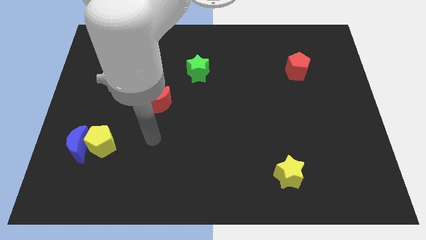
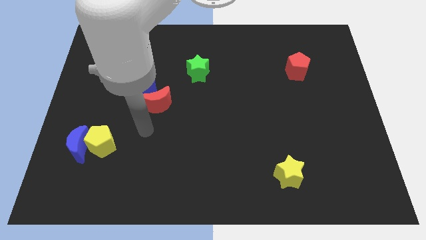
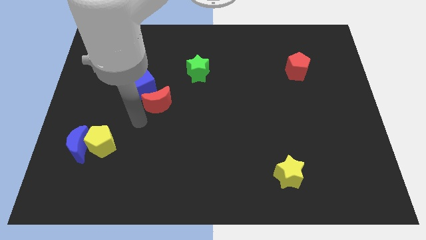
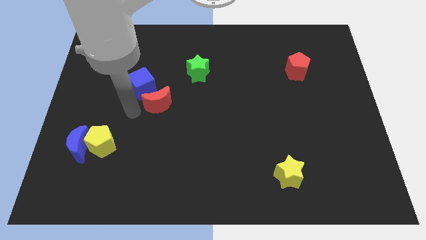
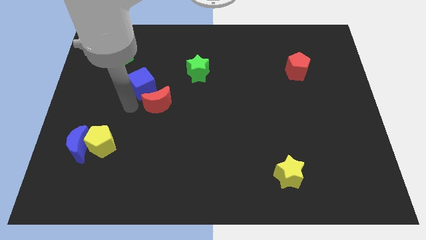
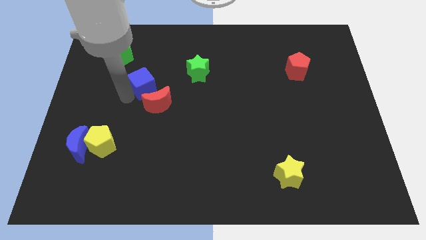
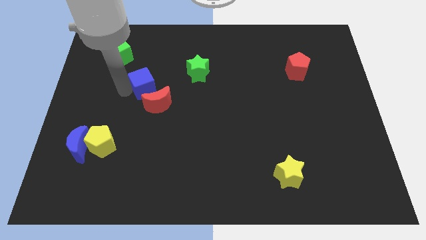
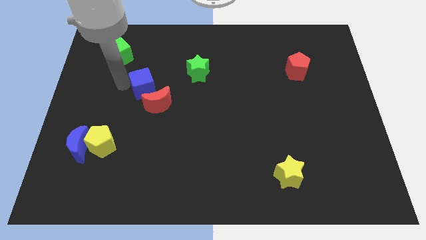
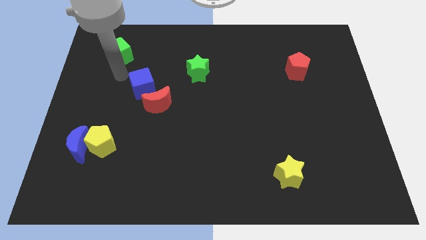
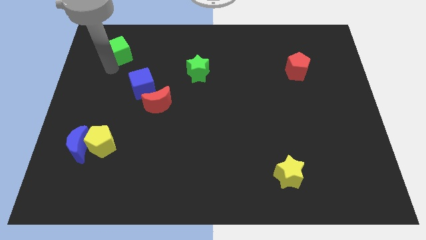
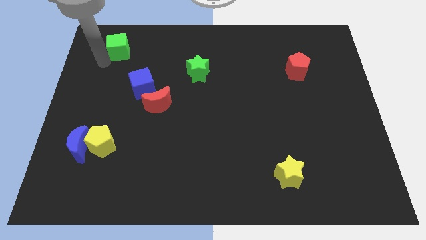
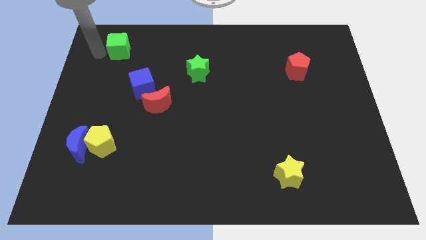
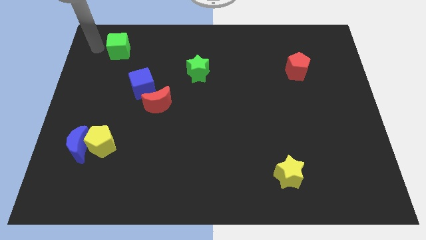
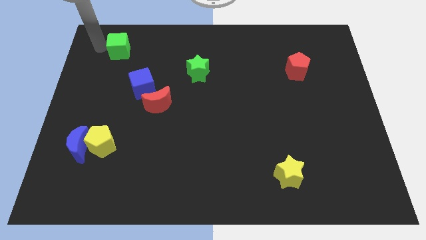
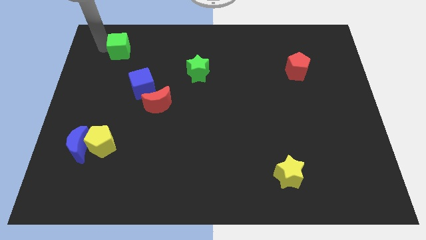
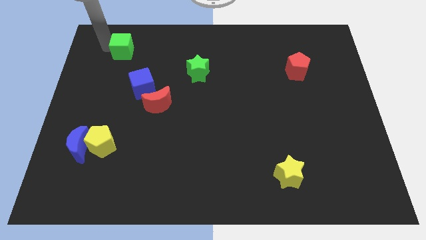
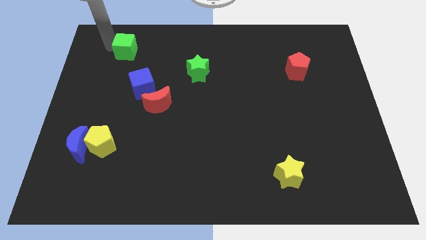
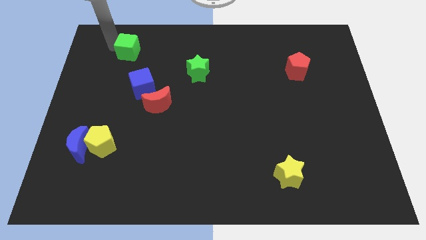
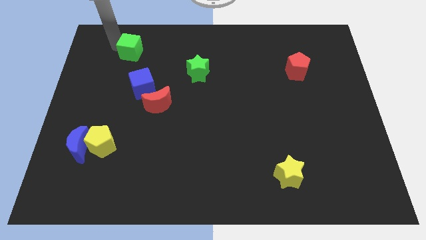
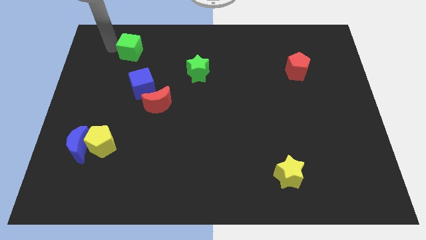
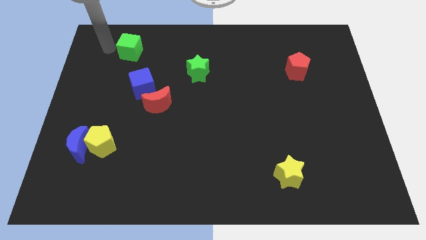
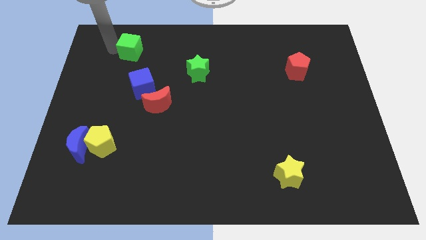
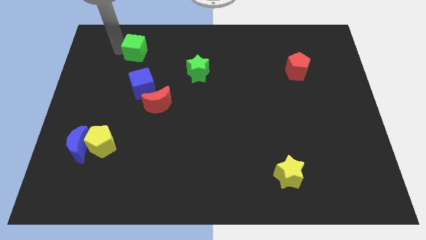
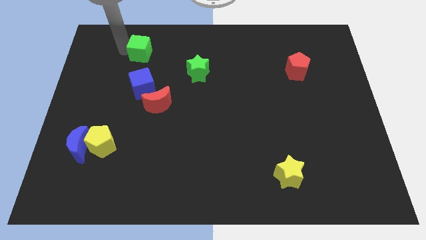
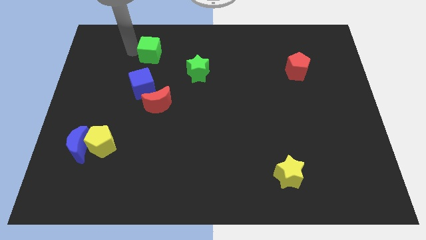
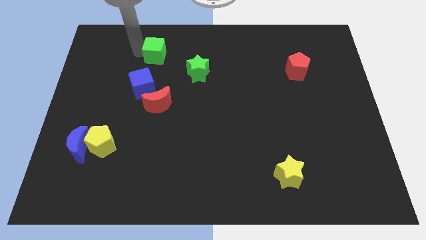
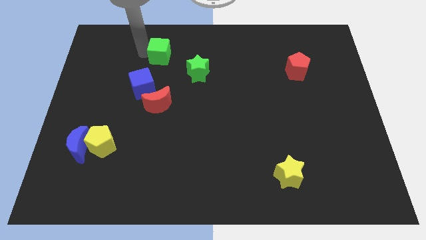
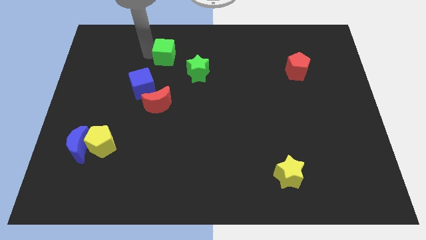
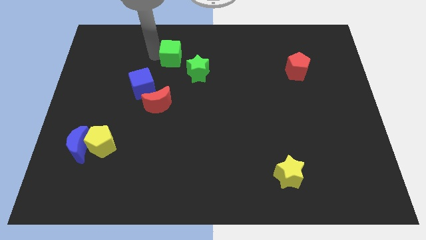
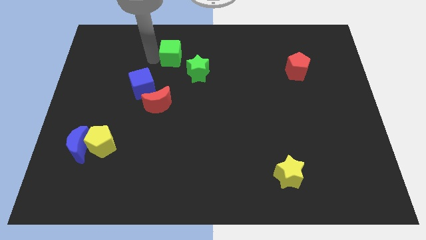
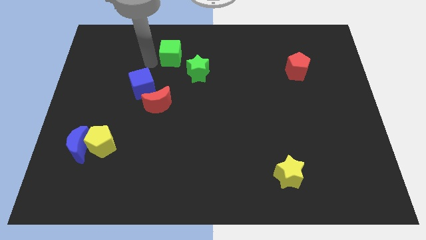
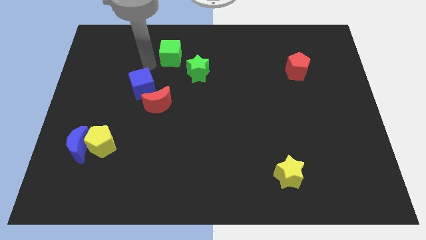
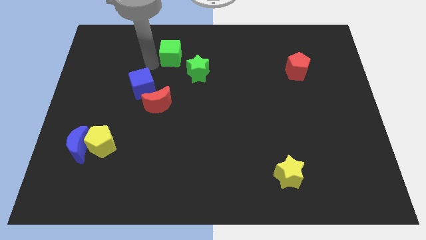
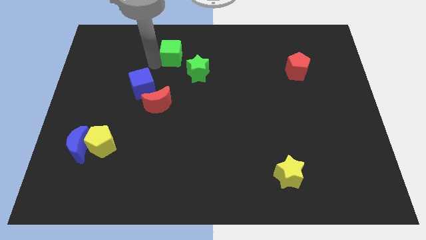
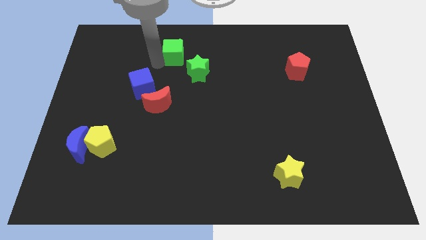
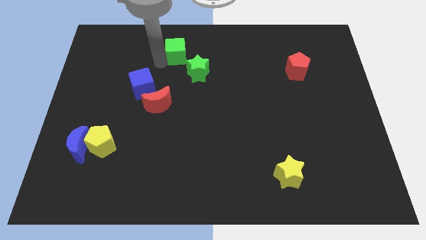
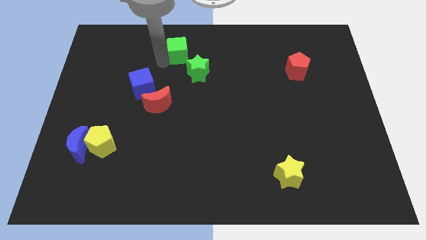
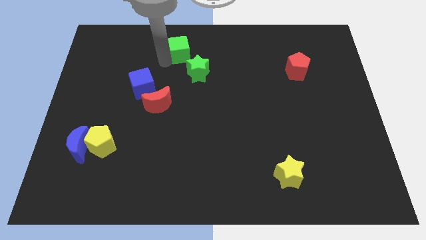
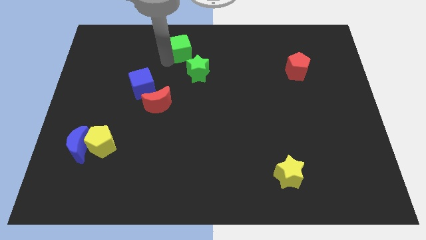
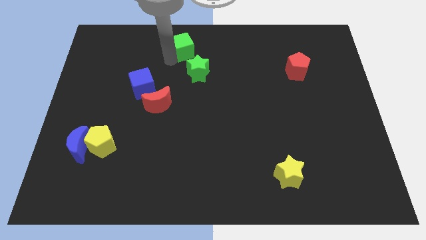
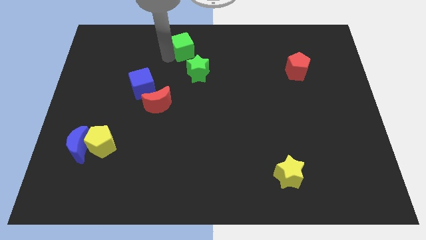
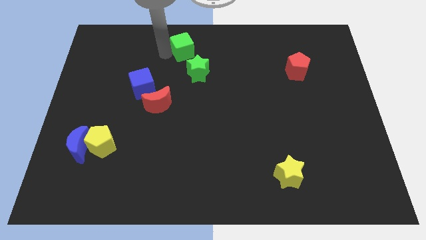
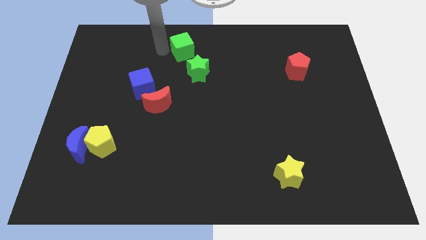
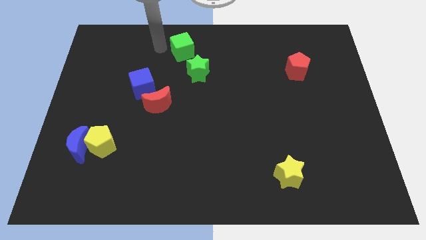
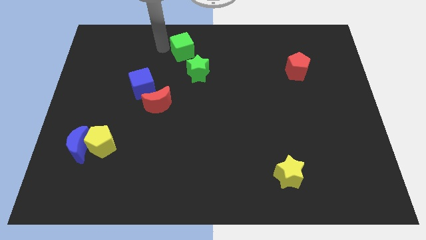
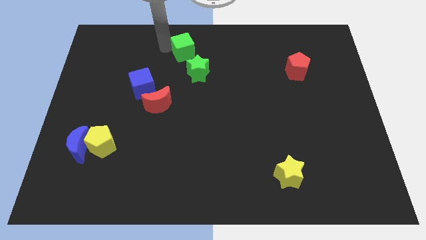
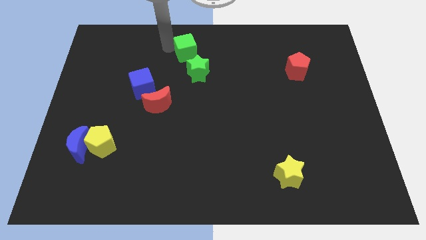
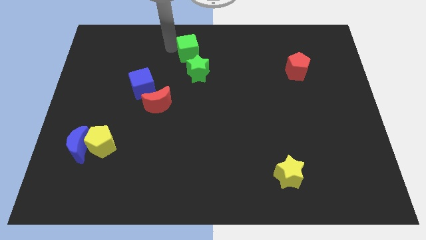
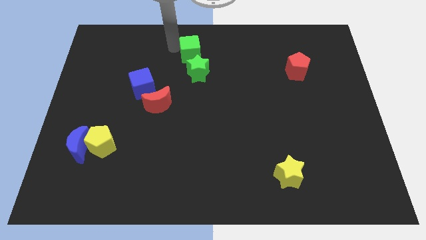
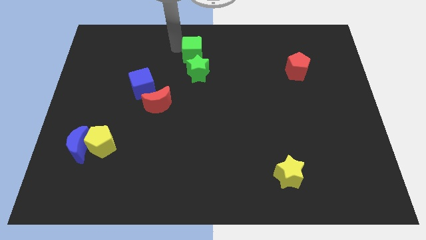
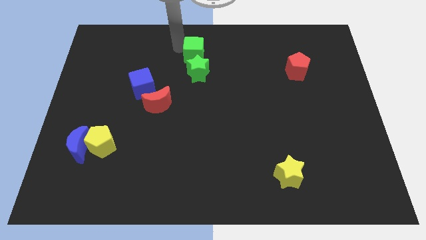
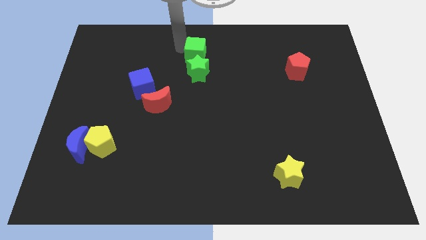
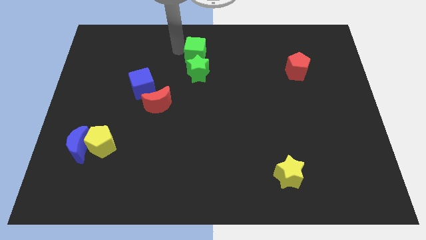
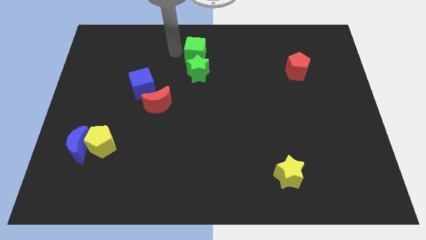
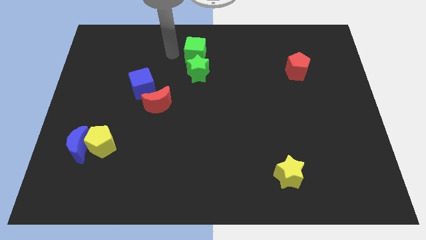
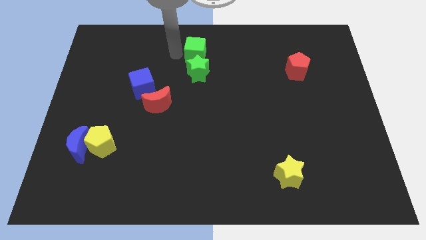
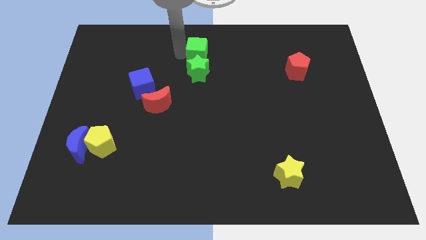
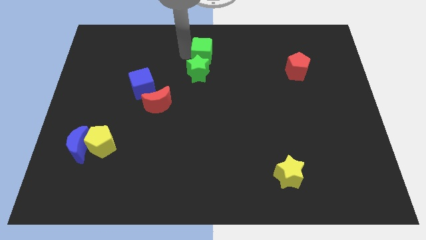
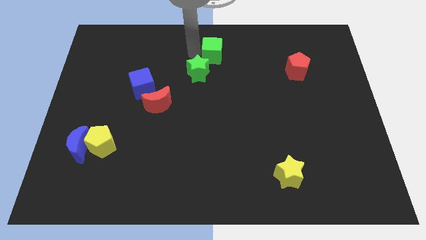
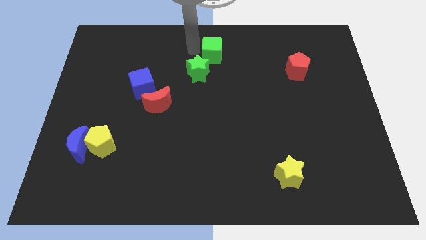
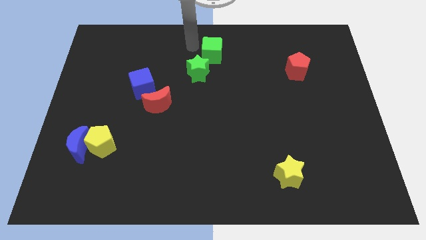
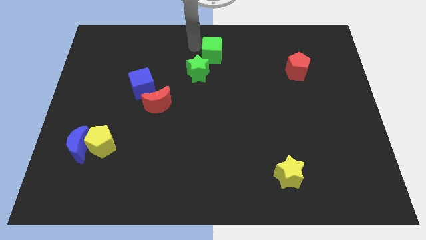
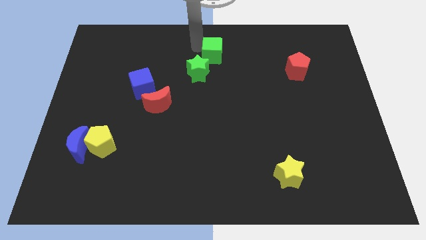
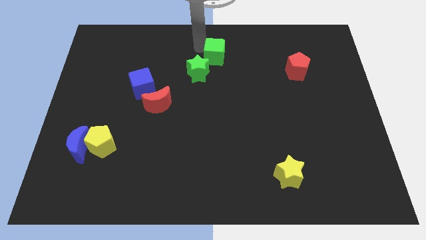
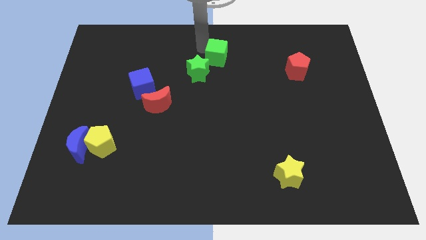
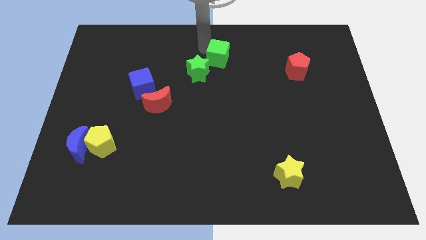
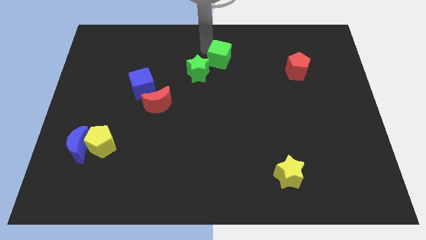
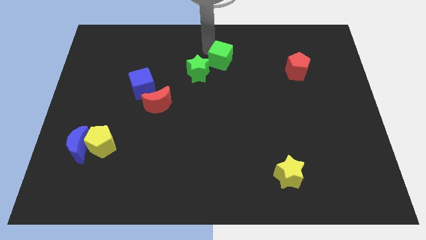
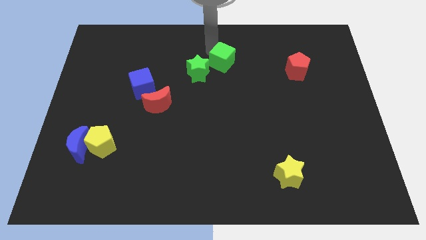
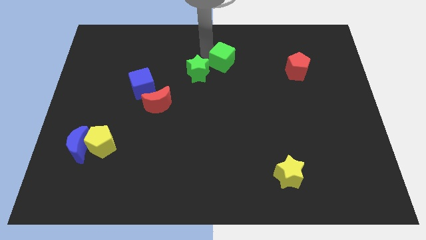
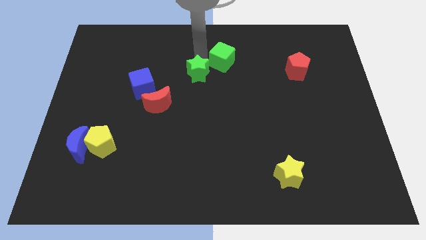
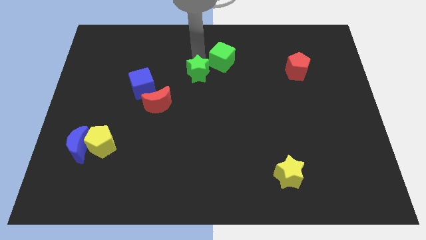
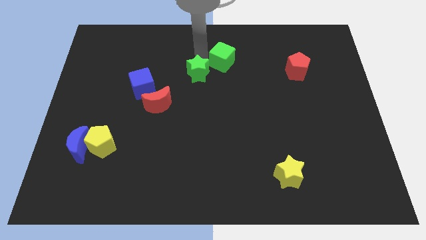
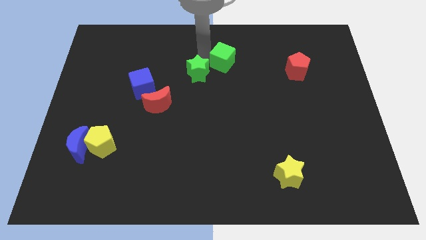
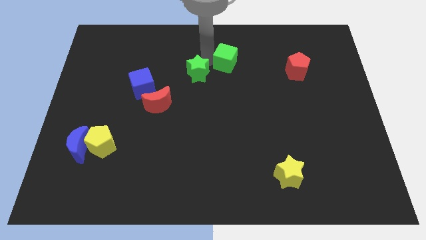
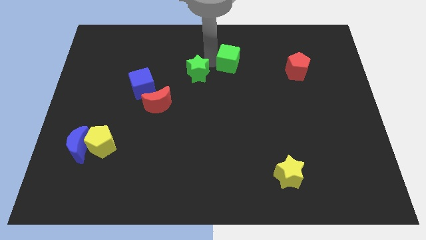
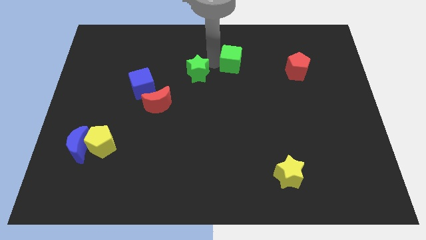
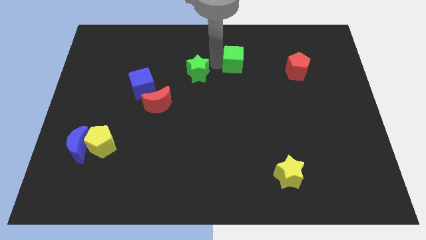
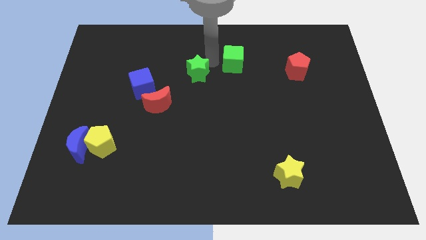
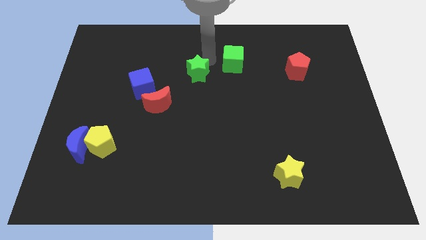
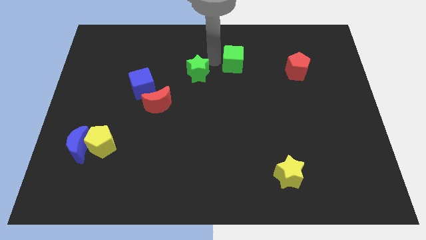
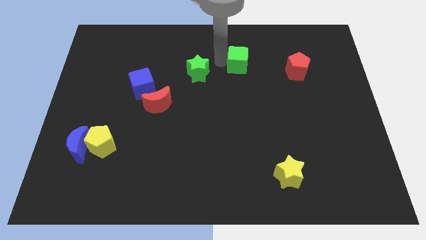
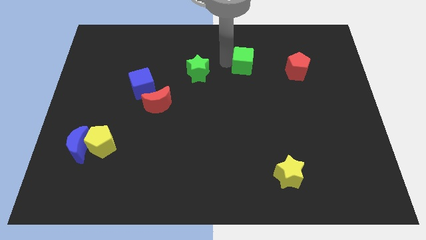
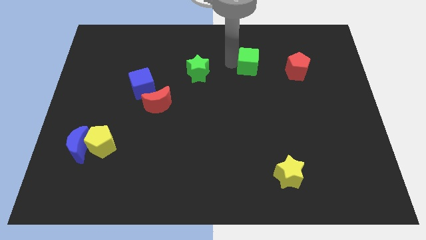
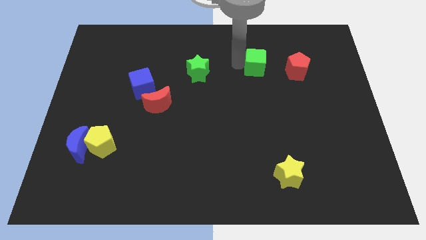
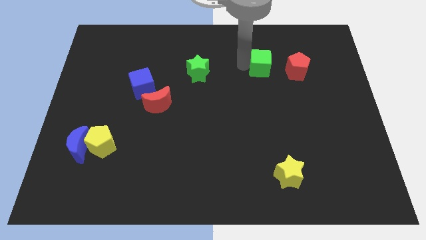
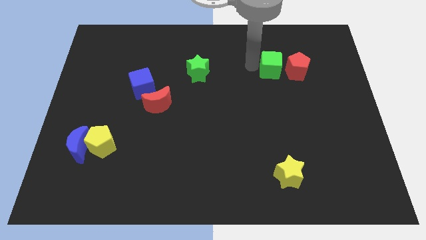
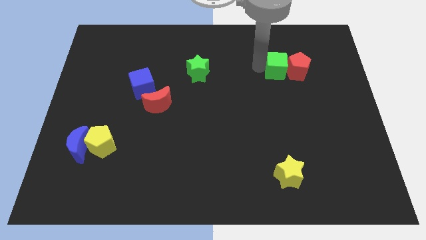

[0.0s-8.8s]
put the green cube close to the red pentagon
